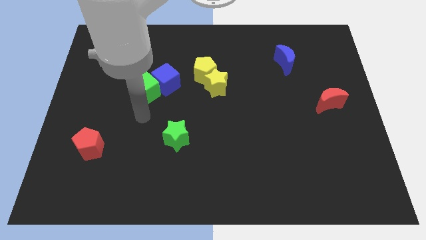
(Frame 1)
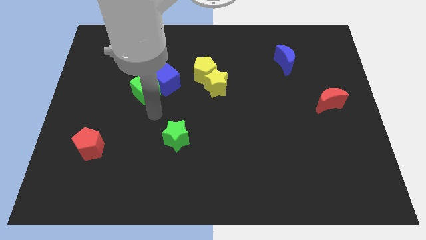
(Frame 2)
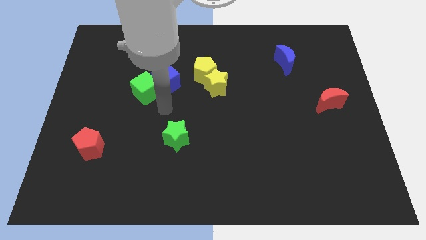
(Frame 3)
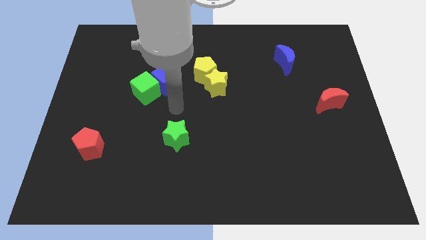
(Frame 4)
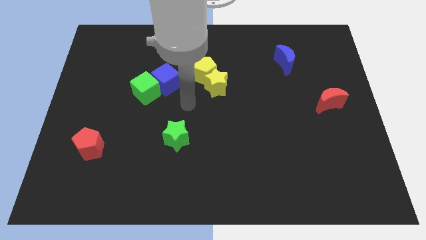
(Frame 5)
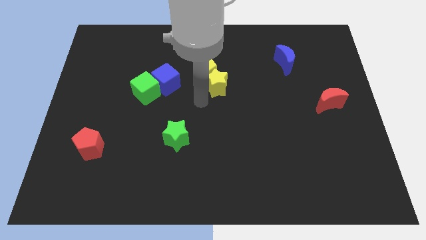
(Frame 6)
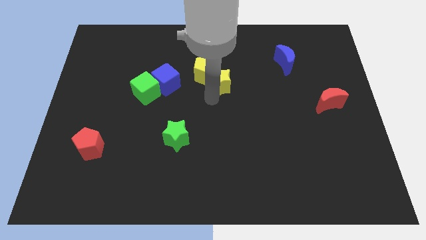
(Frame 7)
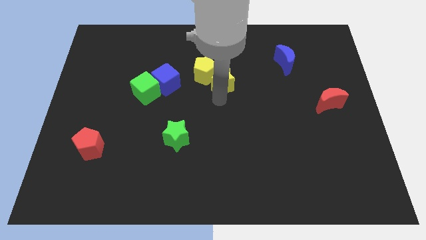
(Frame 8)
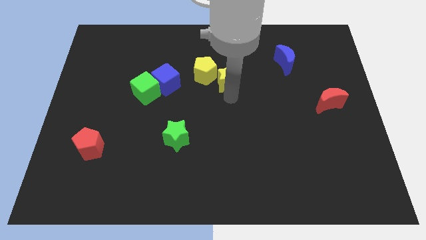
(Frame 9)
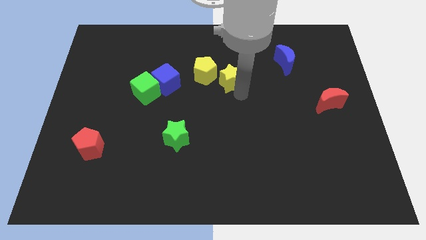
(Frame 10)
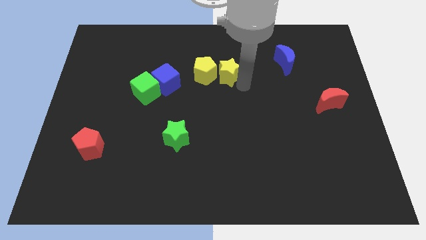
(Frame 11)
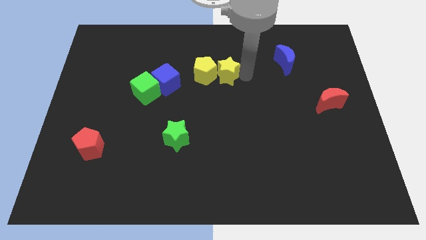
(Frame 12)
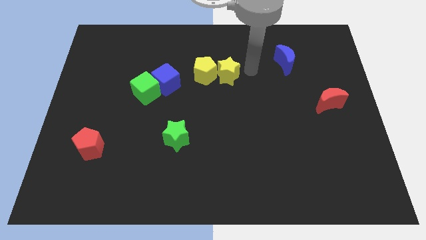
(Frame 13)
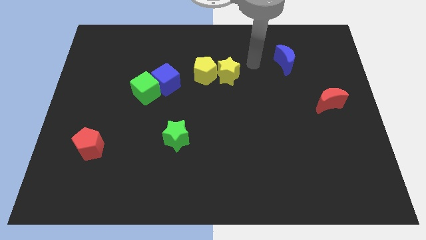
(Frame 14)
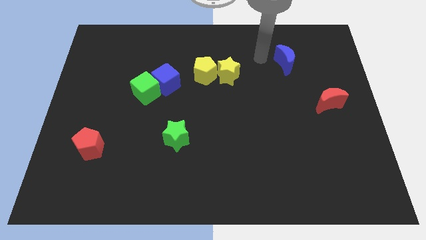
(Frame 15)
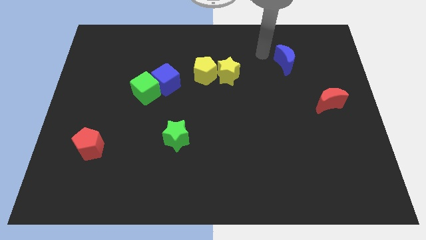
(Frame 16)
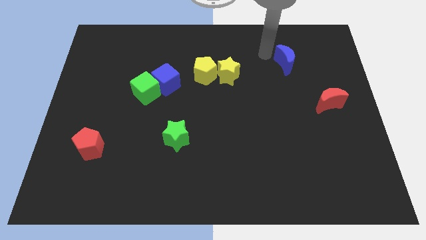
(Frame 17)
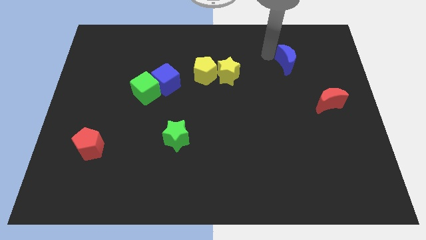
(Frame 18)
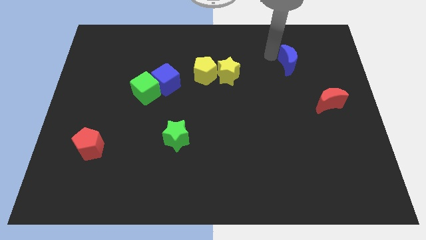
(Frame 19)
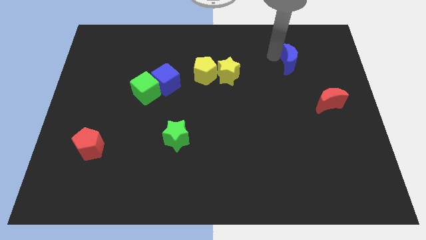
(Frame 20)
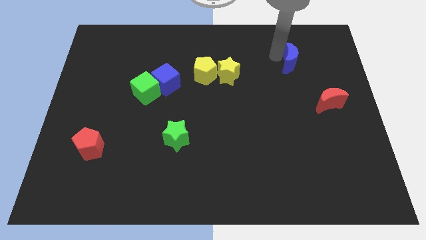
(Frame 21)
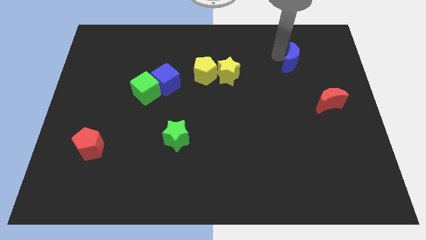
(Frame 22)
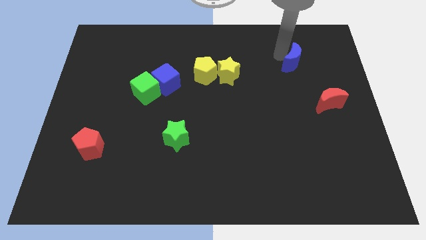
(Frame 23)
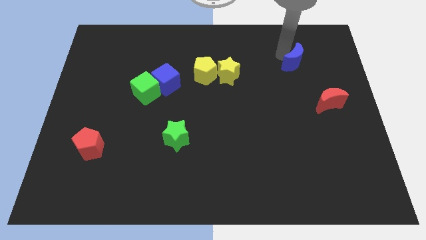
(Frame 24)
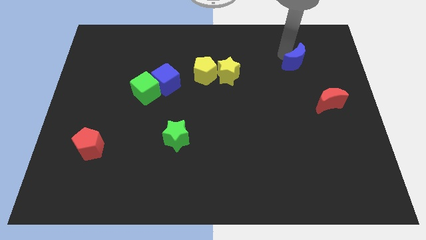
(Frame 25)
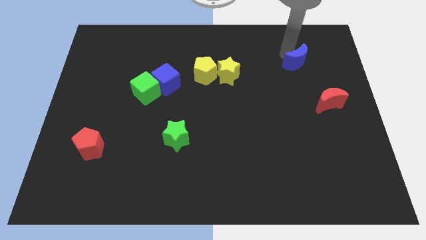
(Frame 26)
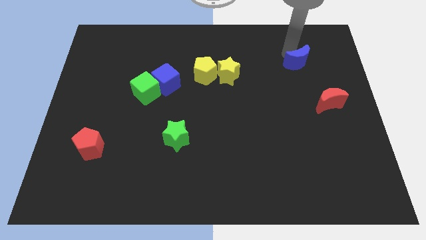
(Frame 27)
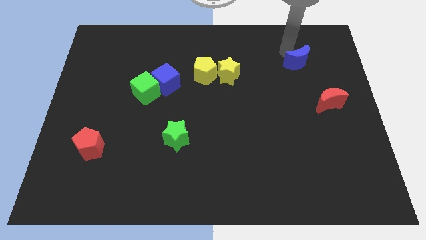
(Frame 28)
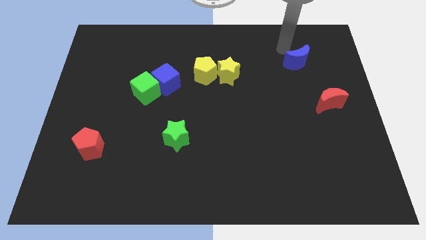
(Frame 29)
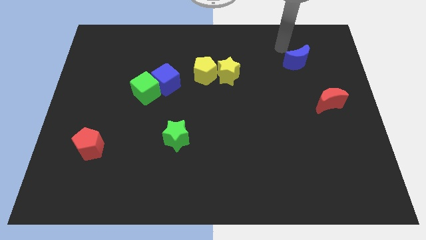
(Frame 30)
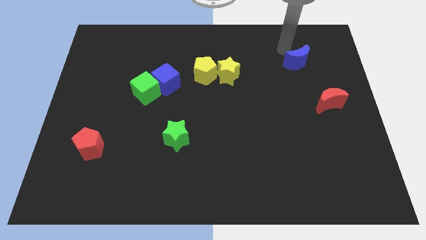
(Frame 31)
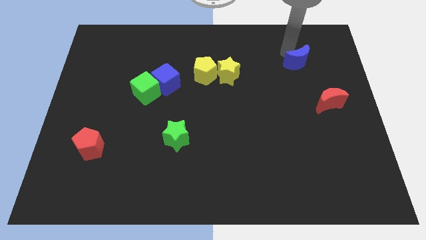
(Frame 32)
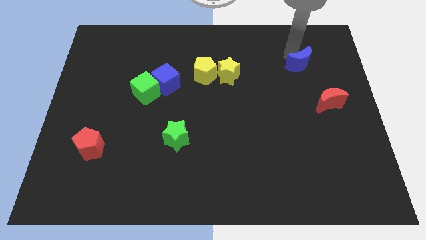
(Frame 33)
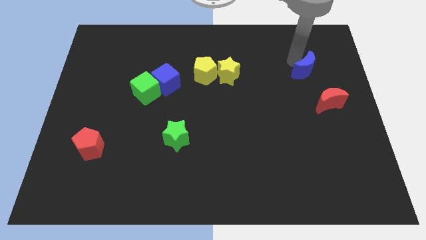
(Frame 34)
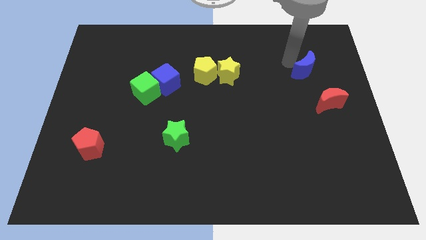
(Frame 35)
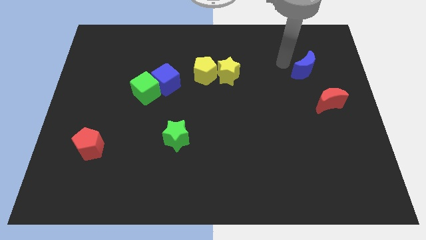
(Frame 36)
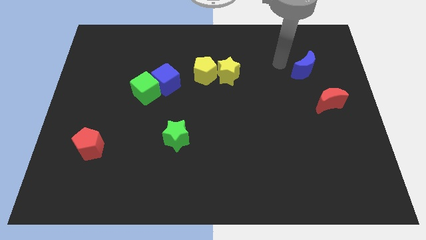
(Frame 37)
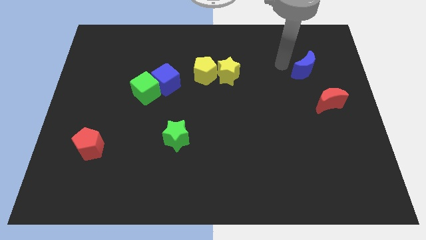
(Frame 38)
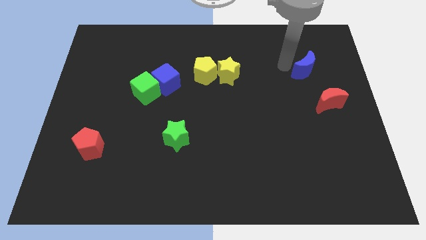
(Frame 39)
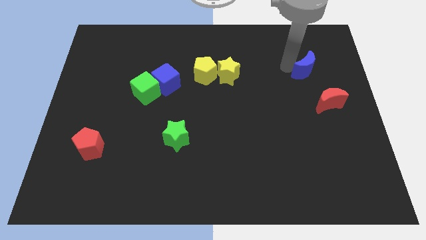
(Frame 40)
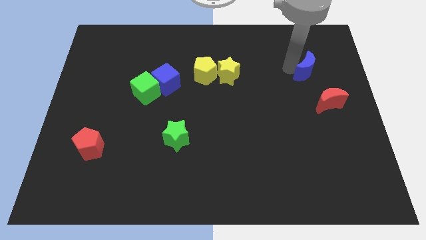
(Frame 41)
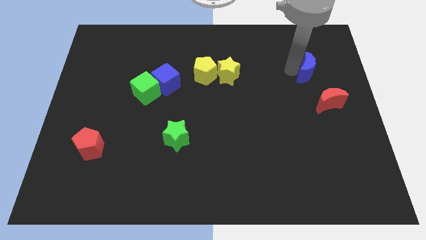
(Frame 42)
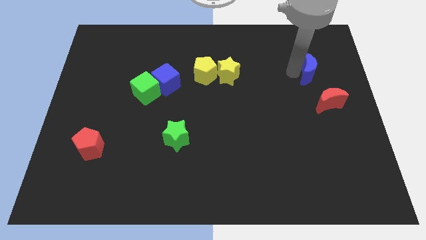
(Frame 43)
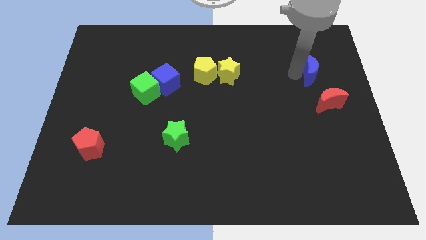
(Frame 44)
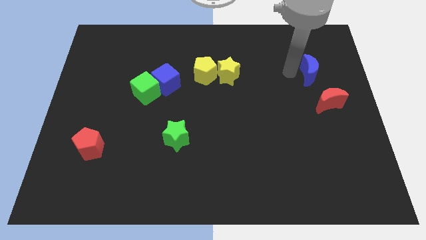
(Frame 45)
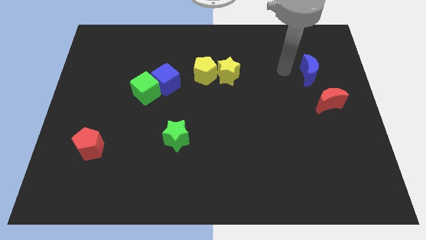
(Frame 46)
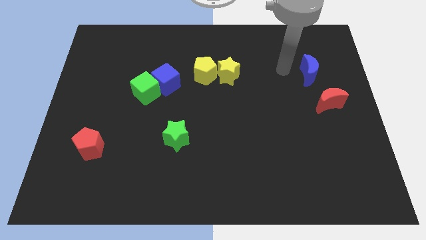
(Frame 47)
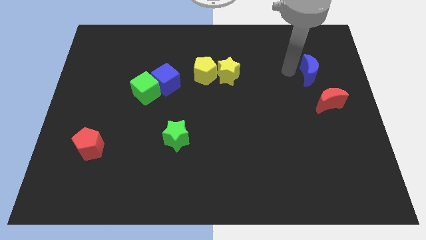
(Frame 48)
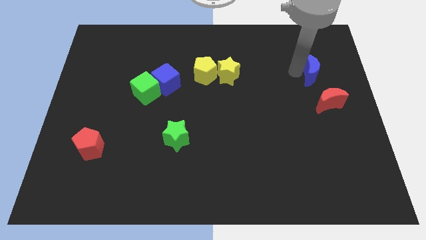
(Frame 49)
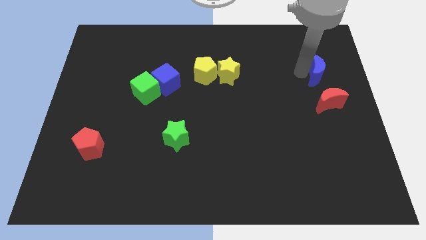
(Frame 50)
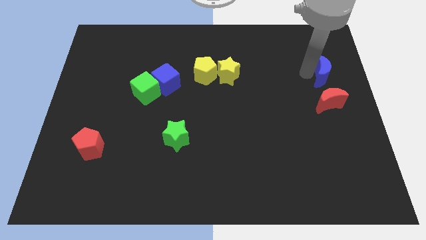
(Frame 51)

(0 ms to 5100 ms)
push the blue moon to the right side of the board

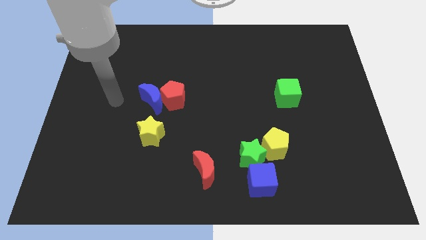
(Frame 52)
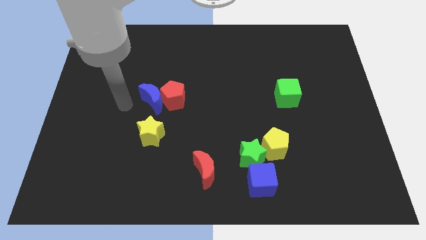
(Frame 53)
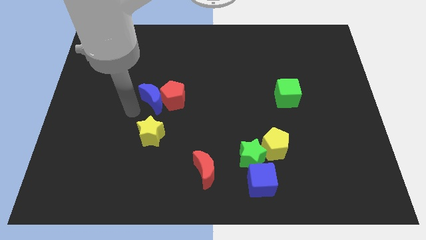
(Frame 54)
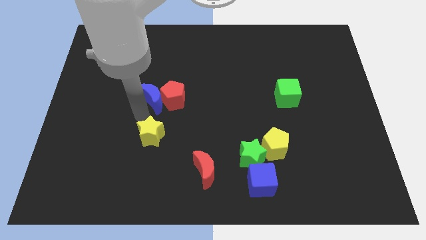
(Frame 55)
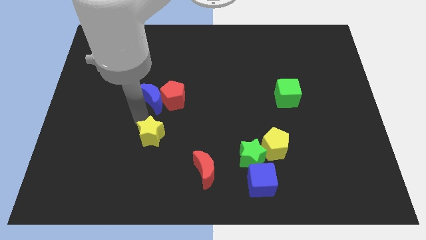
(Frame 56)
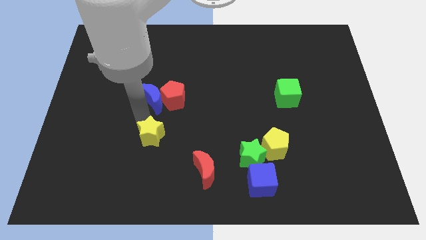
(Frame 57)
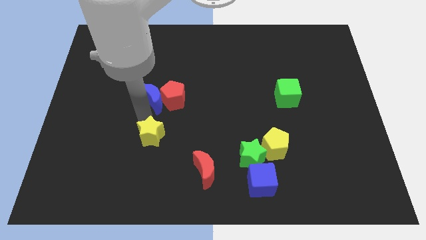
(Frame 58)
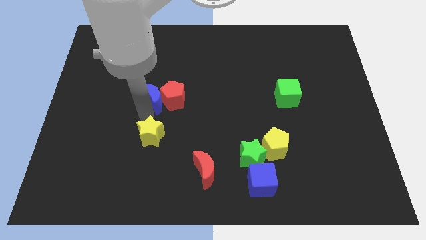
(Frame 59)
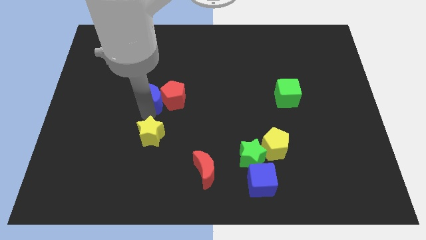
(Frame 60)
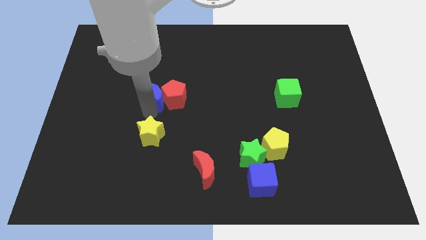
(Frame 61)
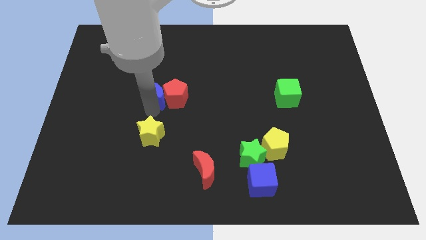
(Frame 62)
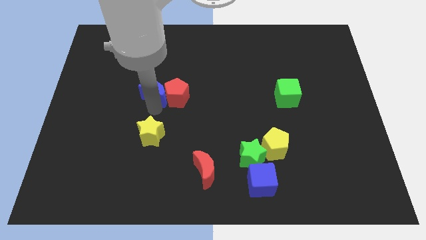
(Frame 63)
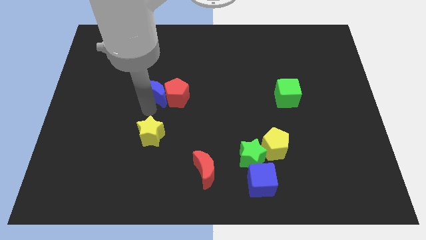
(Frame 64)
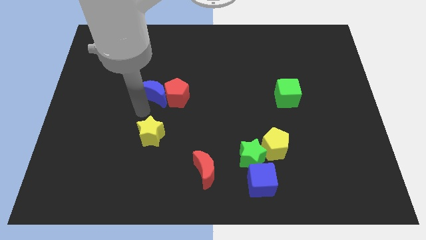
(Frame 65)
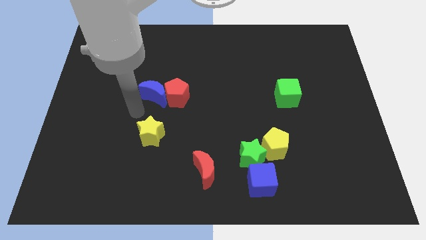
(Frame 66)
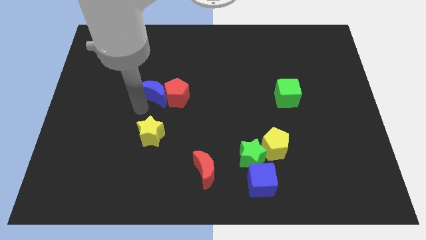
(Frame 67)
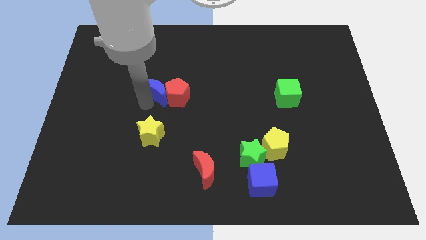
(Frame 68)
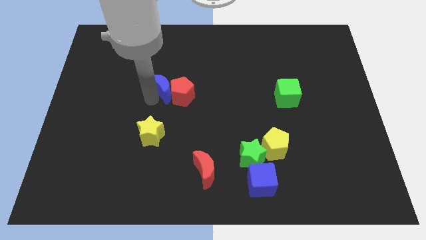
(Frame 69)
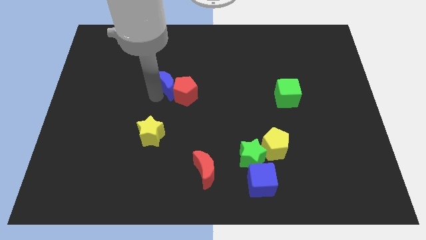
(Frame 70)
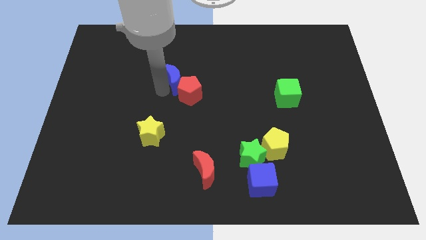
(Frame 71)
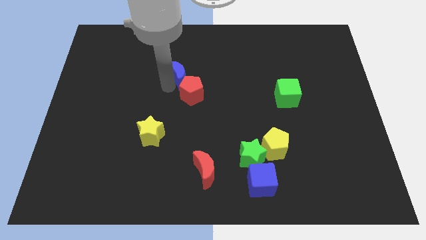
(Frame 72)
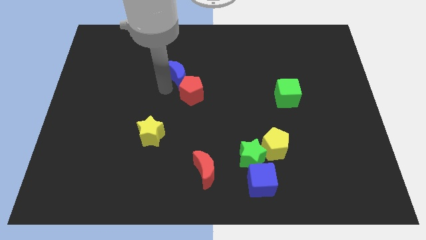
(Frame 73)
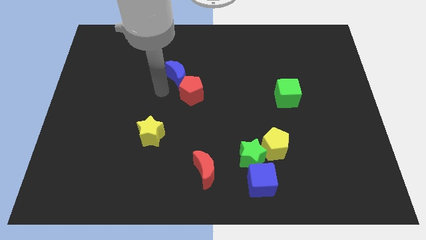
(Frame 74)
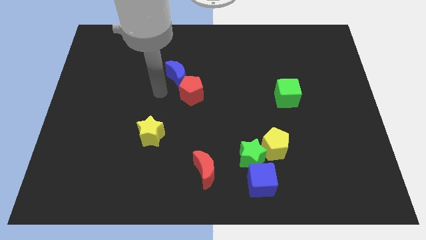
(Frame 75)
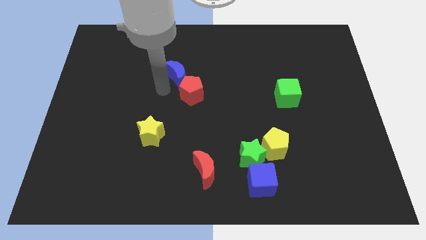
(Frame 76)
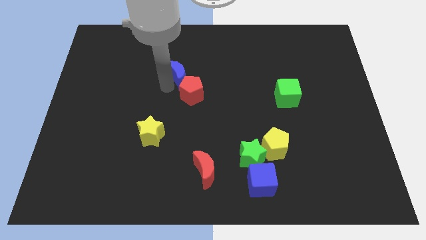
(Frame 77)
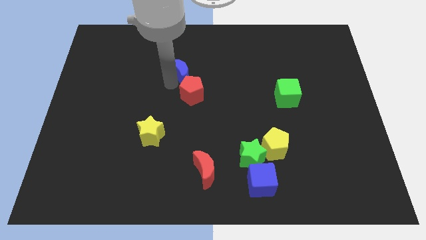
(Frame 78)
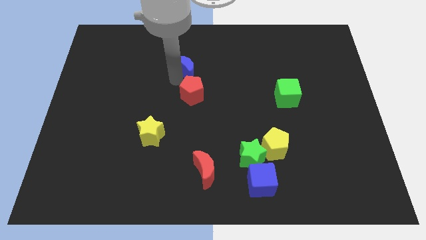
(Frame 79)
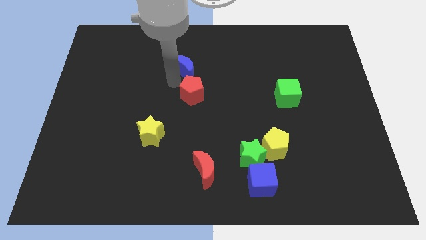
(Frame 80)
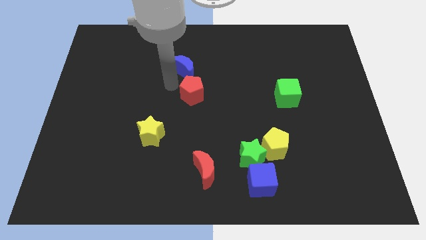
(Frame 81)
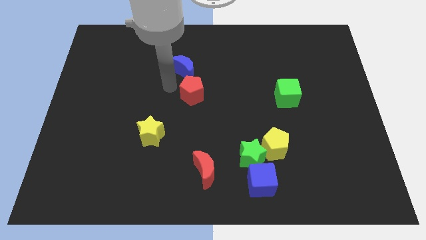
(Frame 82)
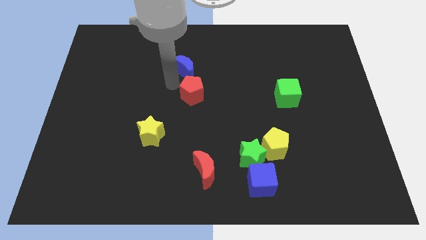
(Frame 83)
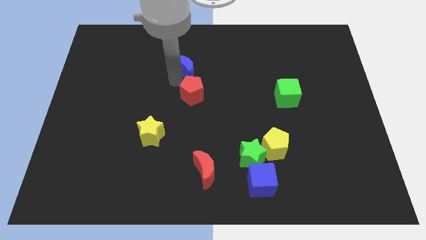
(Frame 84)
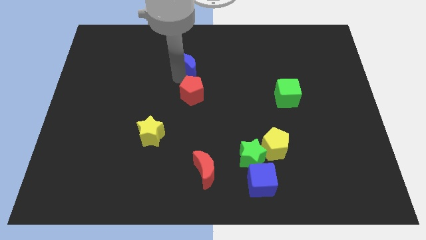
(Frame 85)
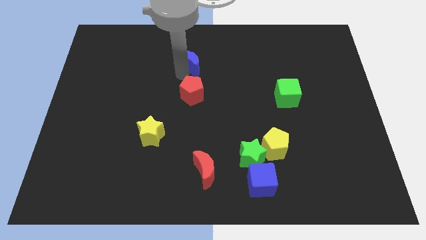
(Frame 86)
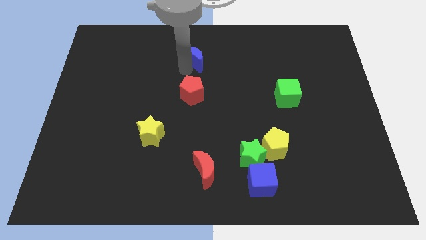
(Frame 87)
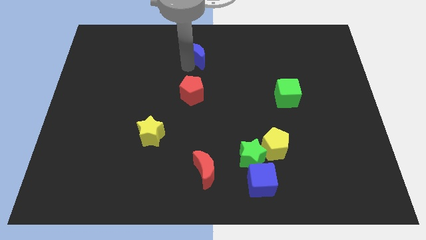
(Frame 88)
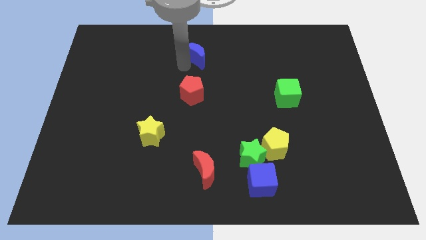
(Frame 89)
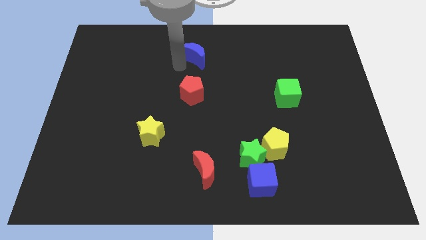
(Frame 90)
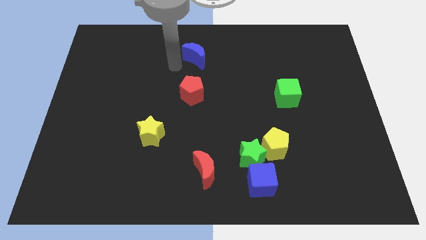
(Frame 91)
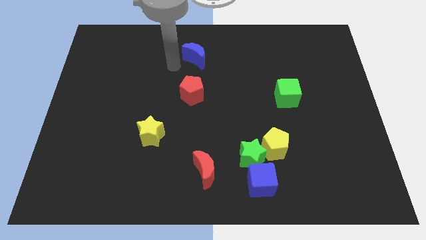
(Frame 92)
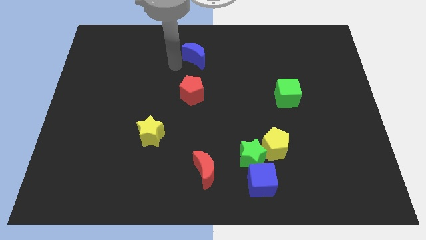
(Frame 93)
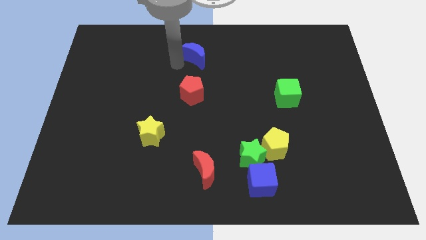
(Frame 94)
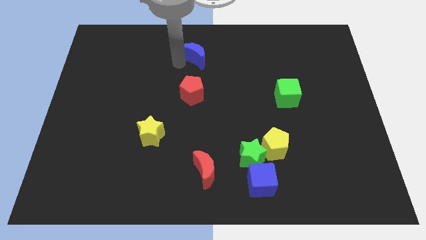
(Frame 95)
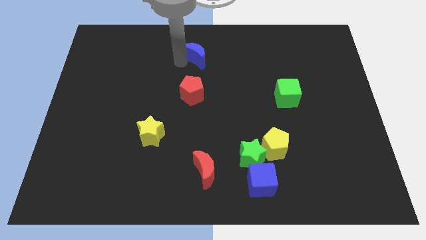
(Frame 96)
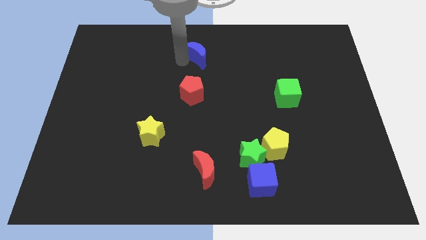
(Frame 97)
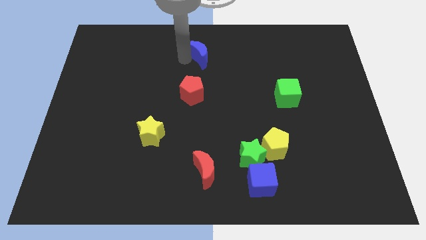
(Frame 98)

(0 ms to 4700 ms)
move the blue moon to the top
